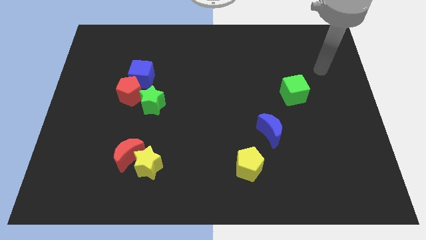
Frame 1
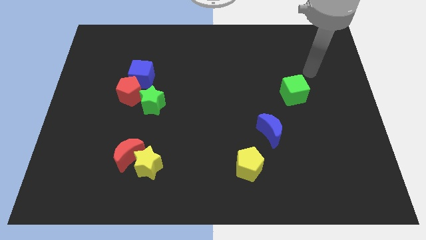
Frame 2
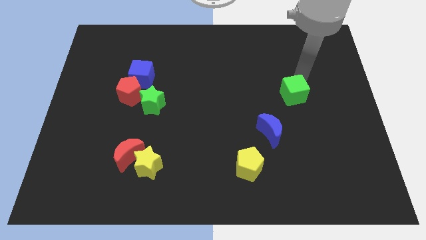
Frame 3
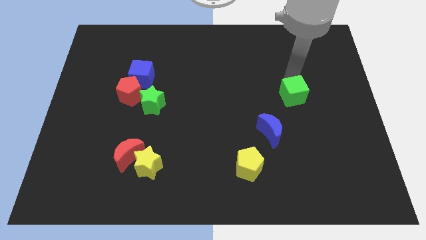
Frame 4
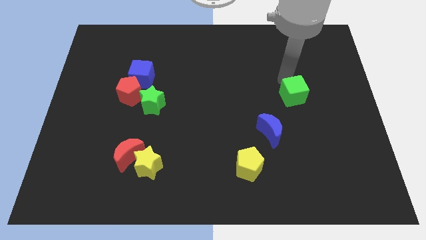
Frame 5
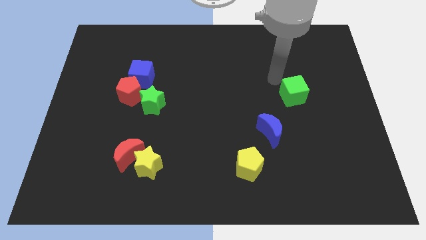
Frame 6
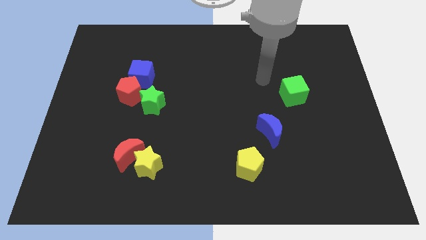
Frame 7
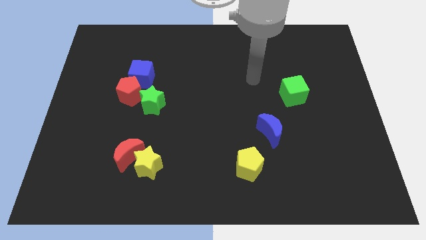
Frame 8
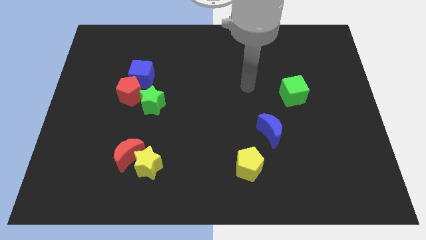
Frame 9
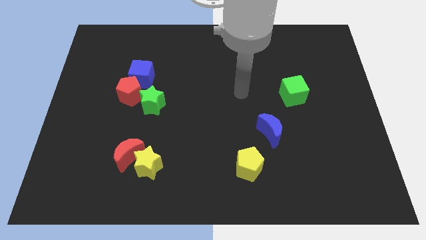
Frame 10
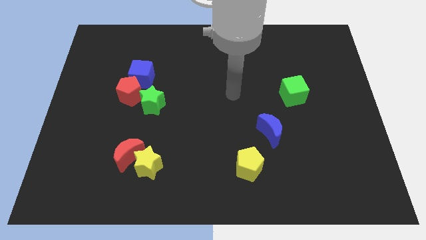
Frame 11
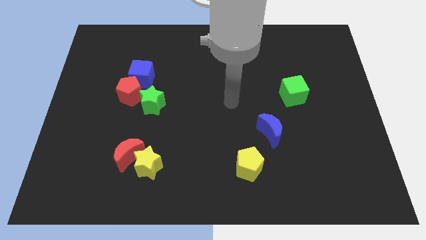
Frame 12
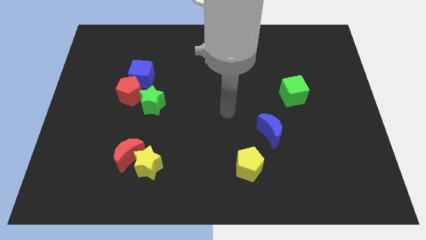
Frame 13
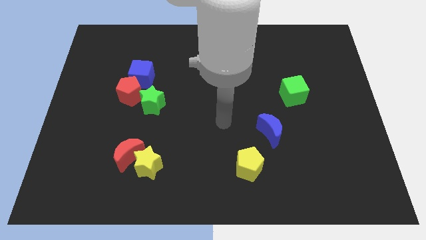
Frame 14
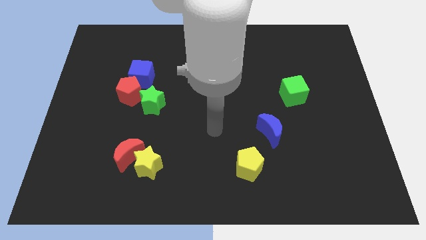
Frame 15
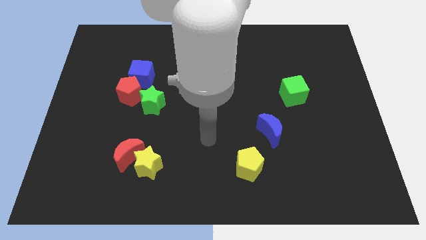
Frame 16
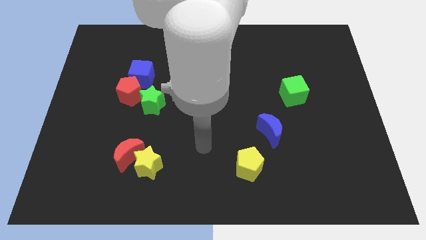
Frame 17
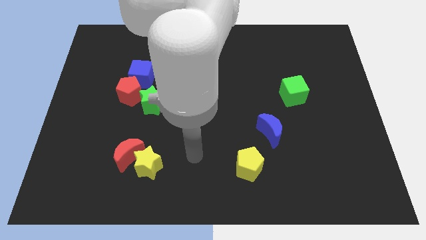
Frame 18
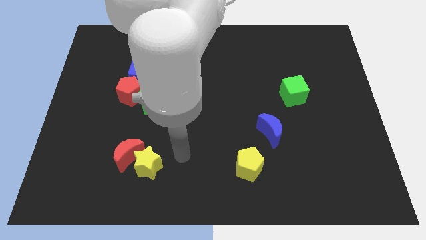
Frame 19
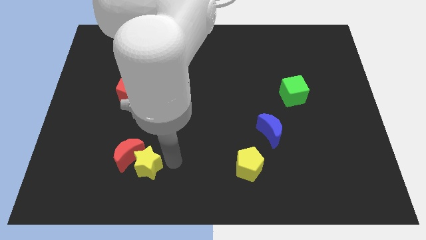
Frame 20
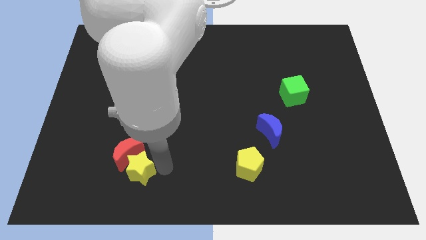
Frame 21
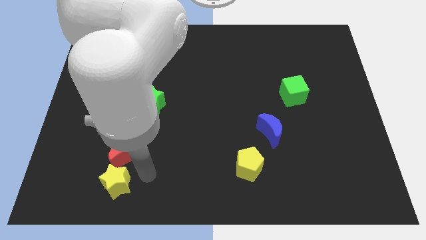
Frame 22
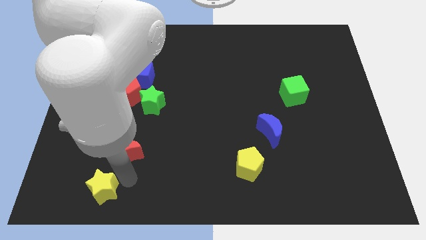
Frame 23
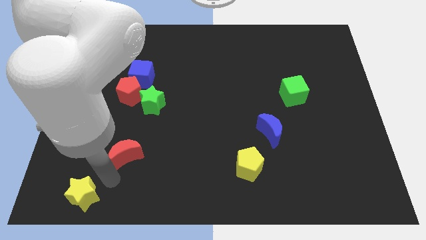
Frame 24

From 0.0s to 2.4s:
move the red moon away from the yellow star

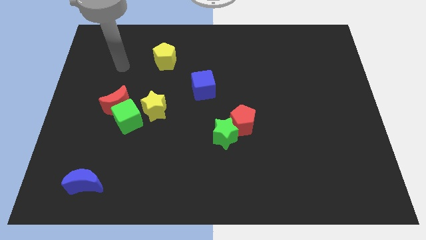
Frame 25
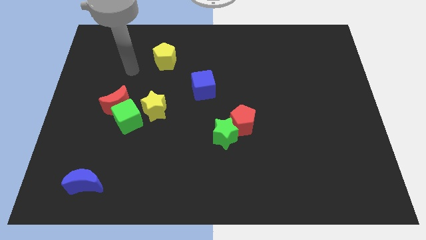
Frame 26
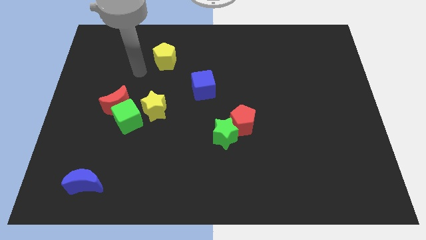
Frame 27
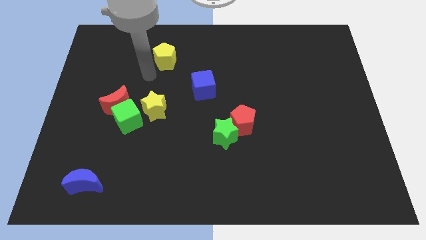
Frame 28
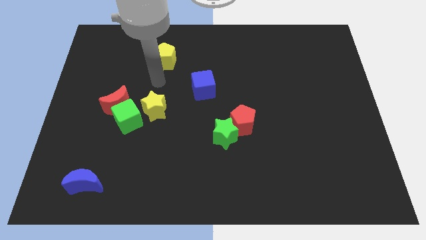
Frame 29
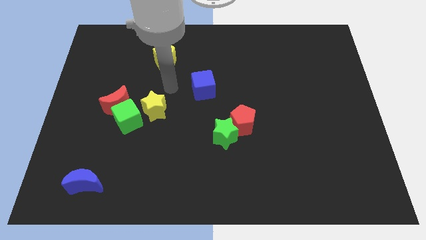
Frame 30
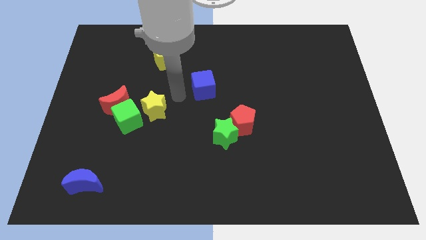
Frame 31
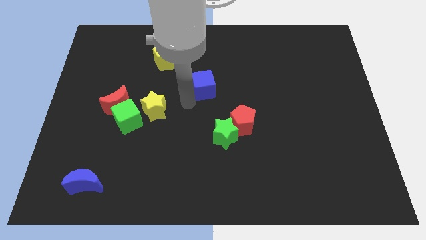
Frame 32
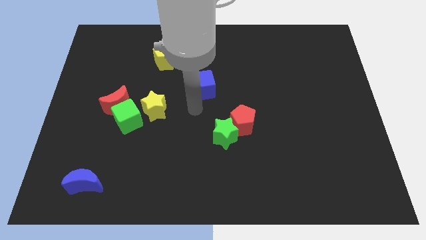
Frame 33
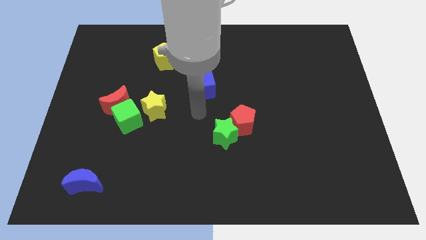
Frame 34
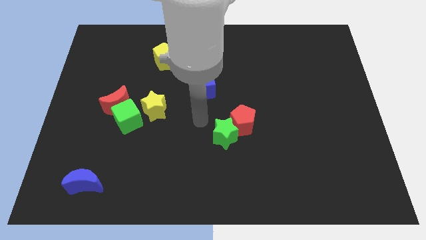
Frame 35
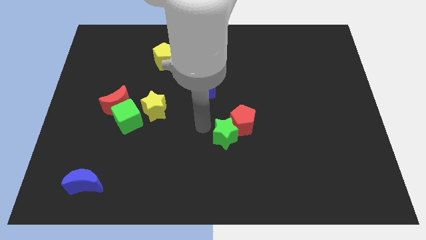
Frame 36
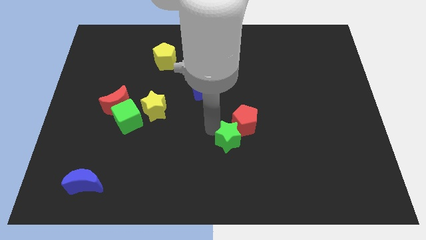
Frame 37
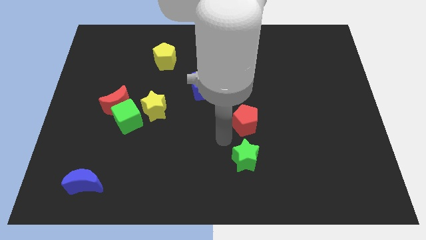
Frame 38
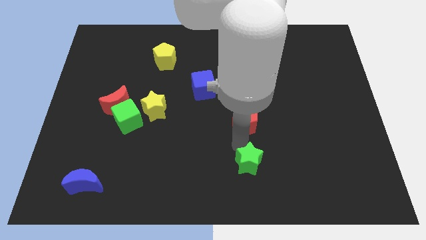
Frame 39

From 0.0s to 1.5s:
pull the red pentagon apart from the green star

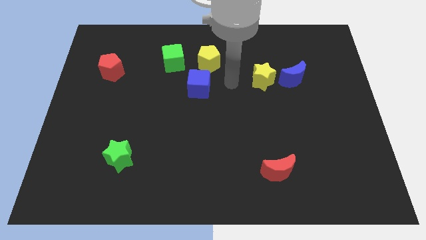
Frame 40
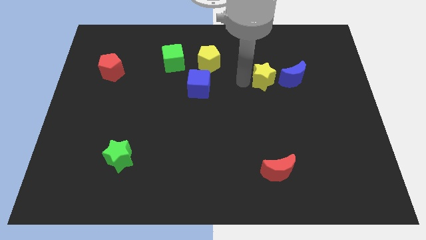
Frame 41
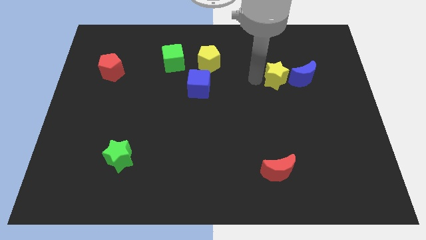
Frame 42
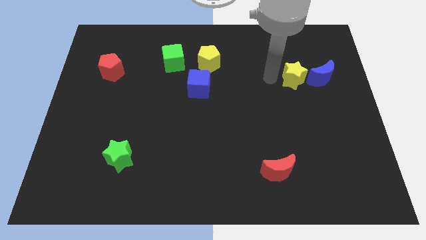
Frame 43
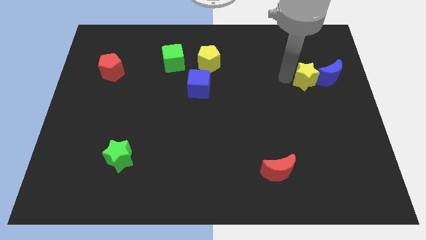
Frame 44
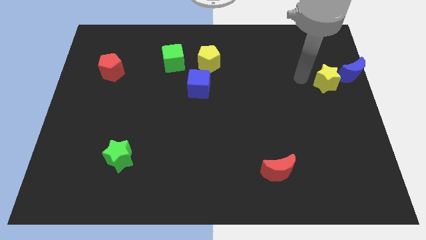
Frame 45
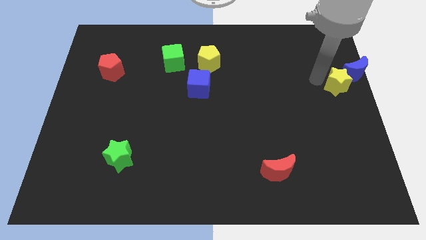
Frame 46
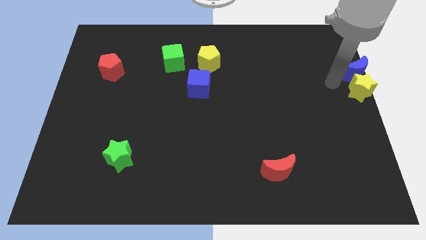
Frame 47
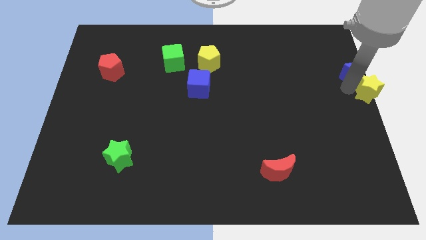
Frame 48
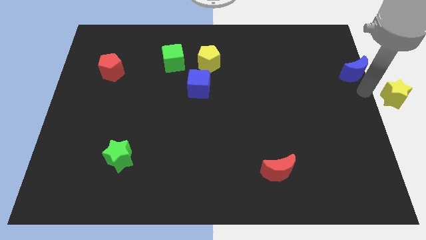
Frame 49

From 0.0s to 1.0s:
move the blue moon away from the yellow star

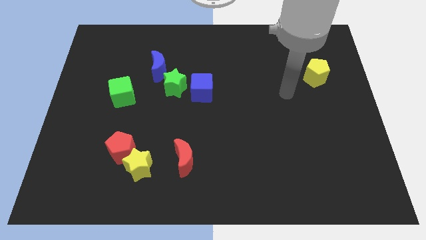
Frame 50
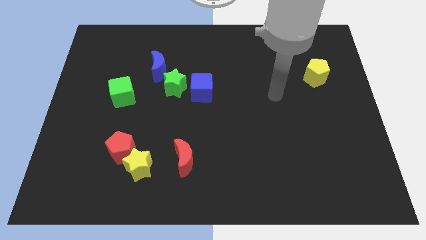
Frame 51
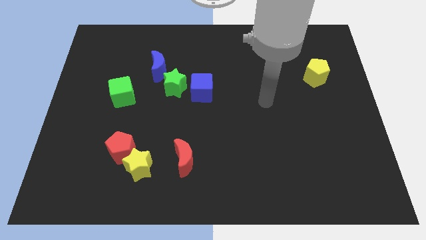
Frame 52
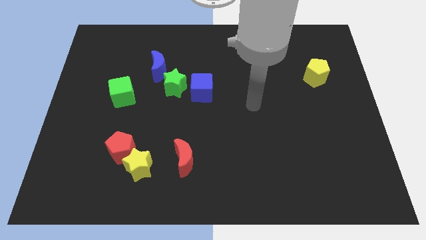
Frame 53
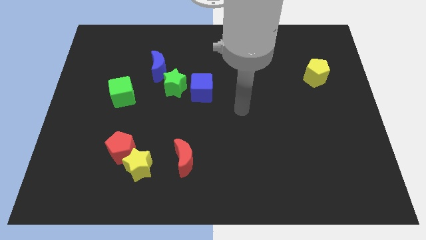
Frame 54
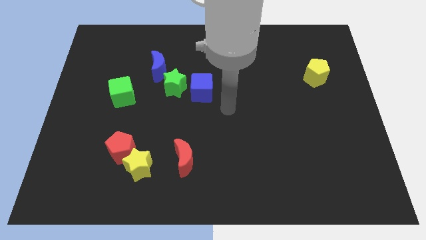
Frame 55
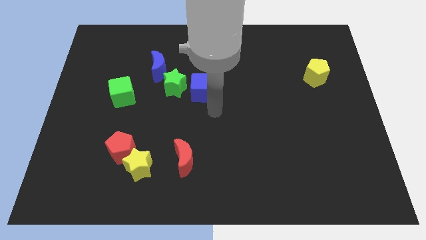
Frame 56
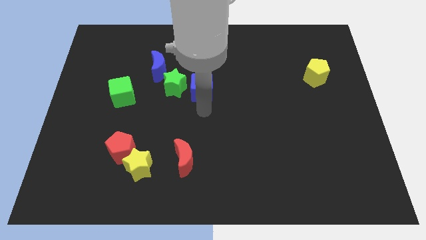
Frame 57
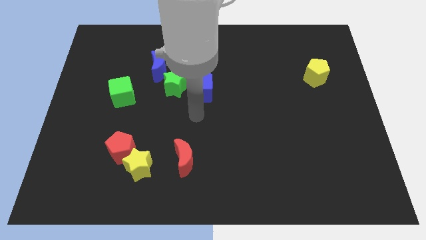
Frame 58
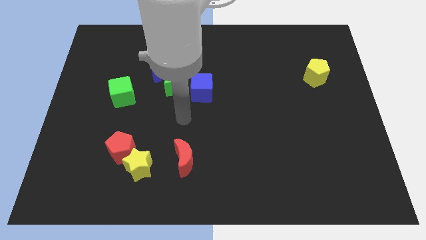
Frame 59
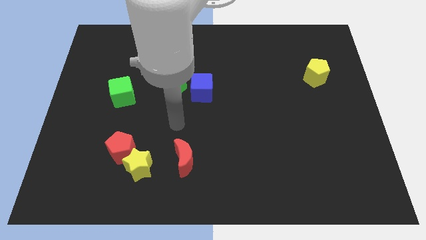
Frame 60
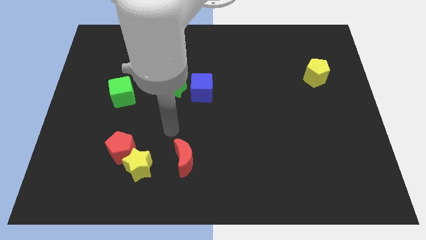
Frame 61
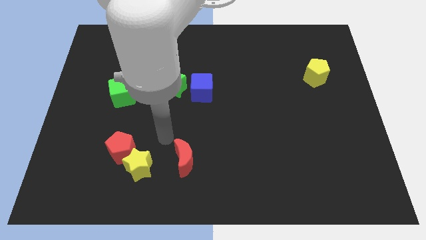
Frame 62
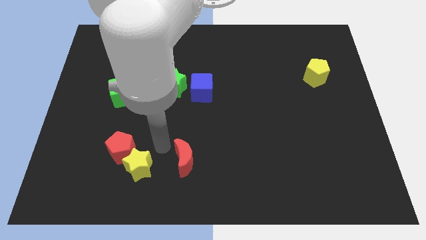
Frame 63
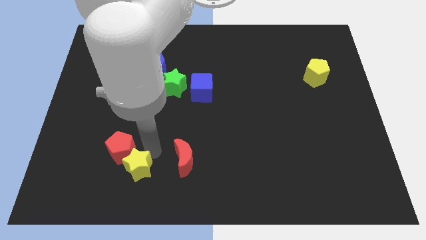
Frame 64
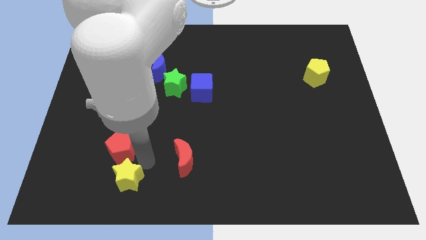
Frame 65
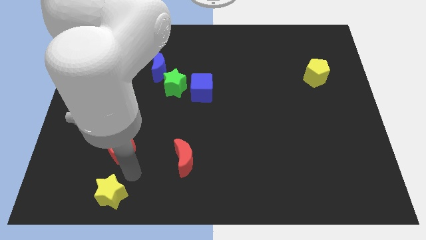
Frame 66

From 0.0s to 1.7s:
separate the red pentagon from the yellow star

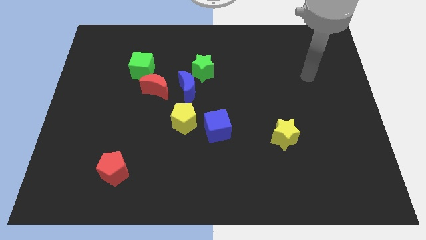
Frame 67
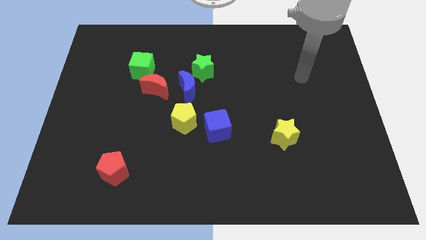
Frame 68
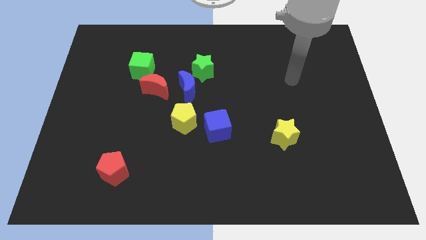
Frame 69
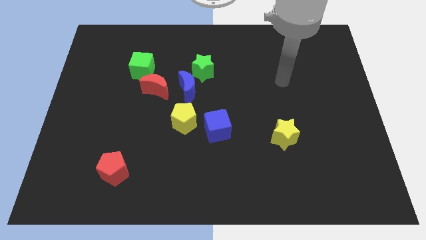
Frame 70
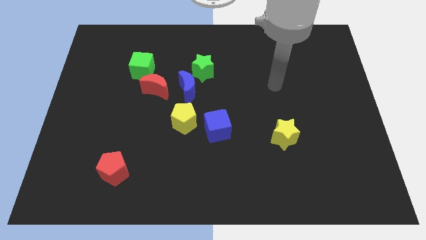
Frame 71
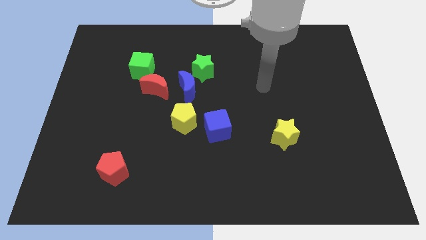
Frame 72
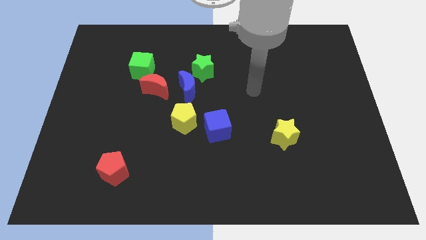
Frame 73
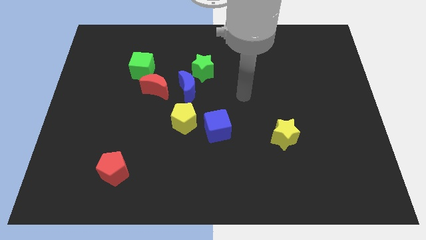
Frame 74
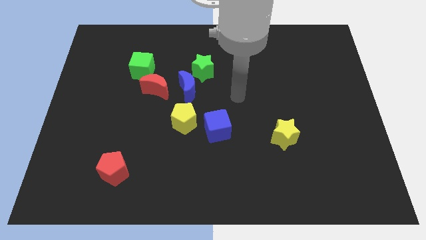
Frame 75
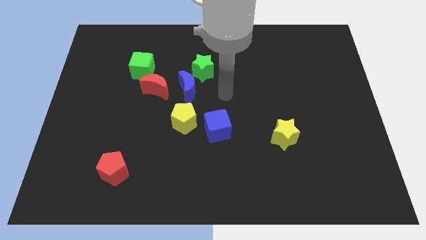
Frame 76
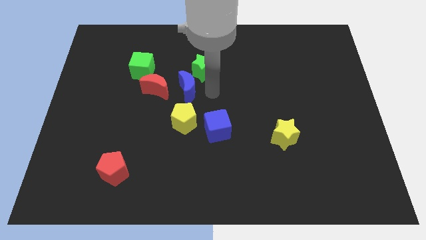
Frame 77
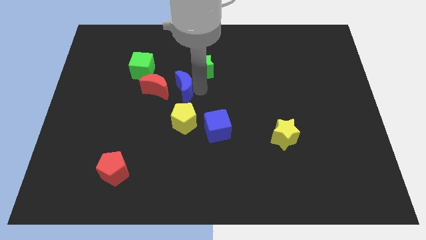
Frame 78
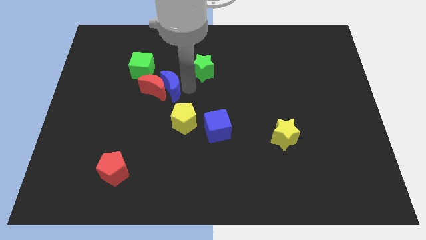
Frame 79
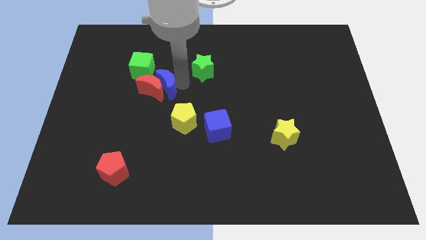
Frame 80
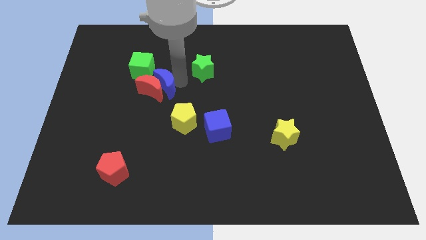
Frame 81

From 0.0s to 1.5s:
pull the green star apart from the blue moon

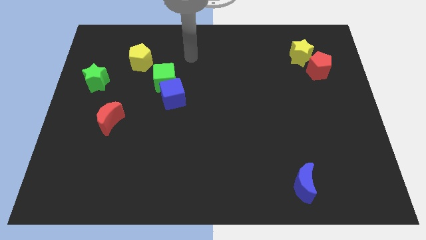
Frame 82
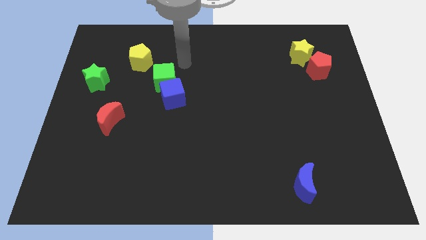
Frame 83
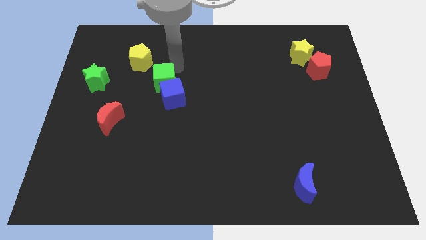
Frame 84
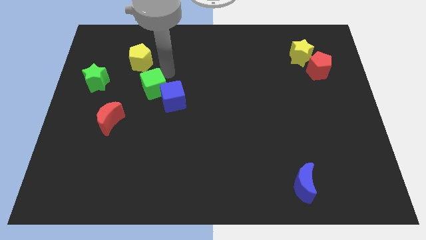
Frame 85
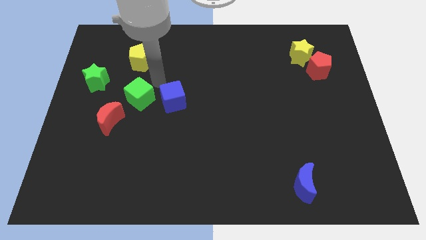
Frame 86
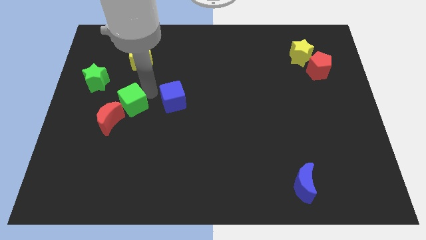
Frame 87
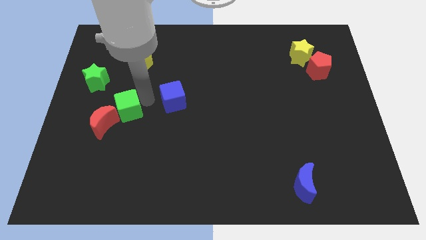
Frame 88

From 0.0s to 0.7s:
pull the blue cube apart from the green cube

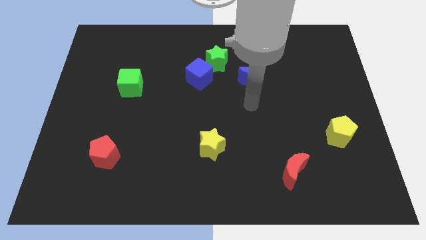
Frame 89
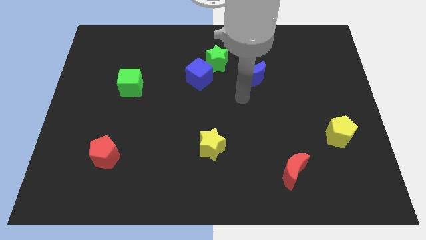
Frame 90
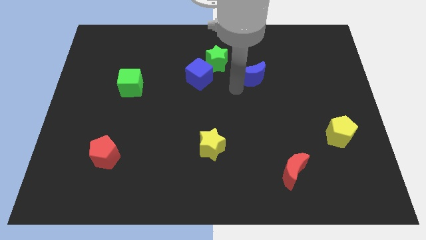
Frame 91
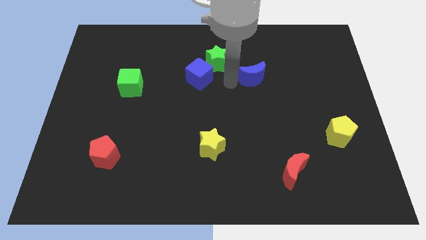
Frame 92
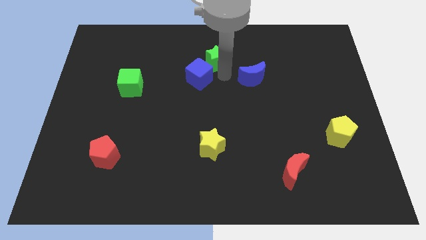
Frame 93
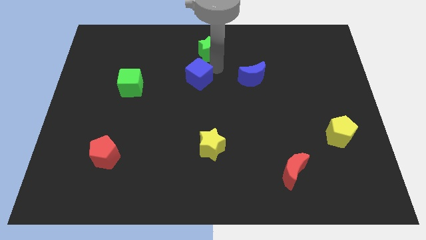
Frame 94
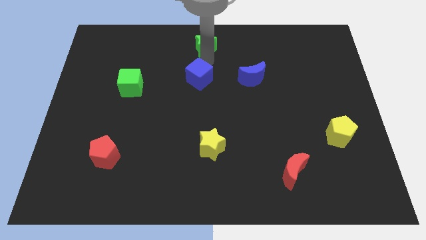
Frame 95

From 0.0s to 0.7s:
move the blue cube away from the green star
